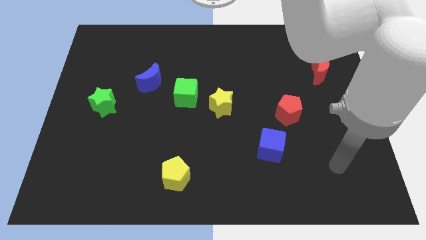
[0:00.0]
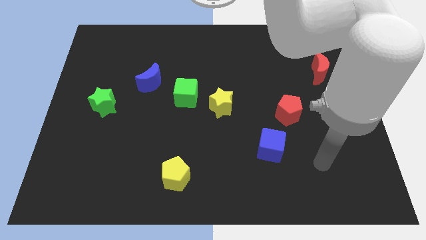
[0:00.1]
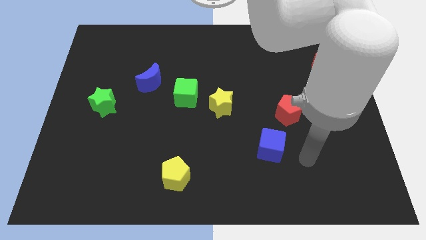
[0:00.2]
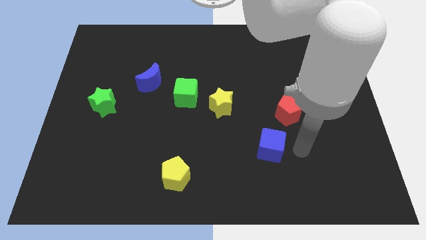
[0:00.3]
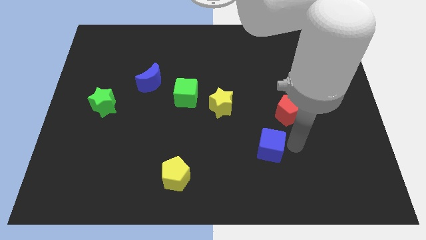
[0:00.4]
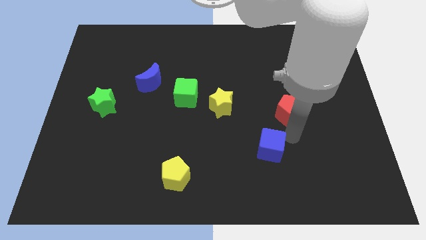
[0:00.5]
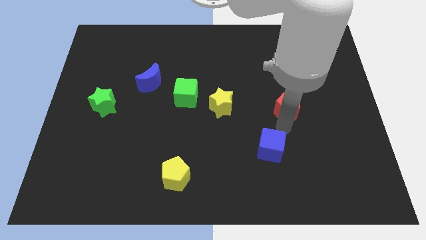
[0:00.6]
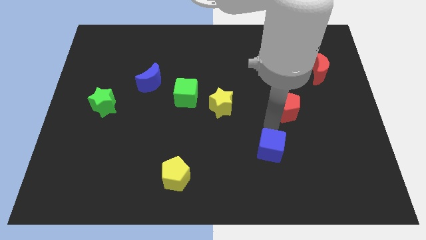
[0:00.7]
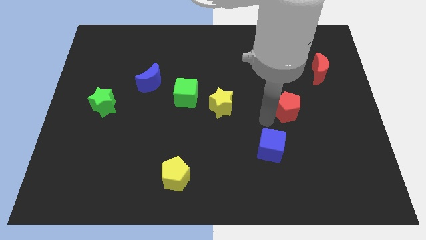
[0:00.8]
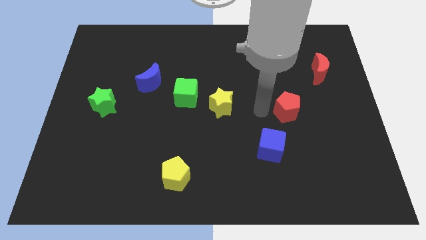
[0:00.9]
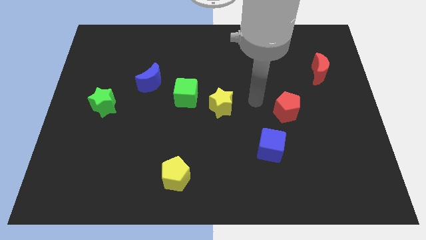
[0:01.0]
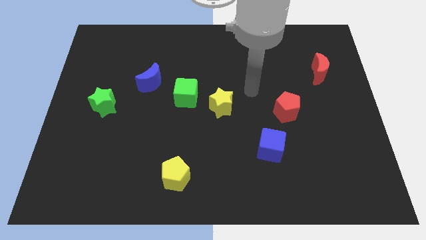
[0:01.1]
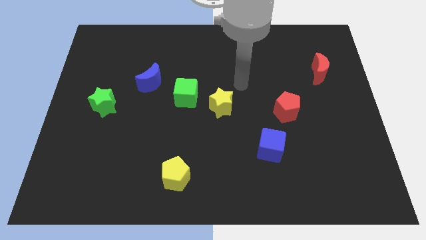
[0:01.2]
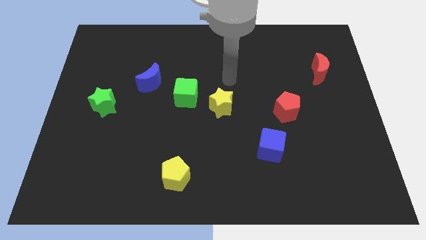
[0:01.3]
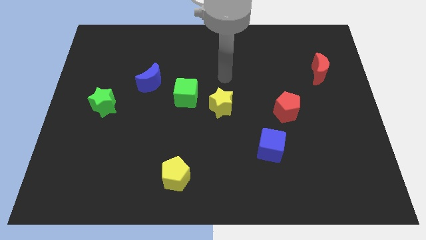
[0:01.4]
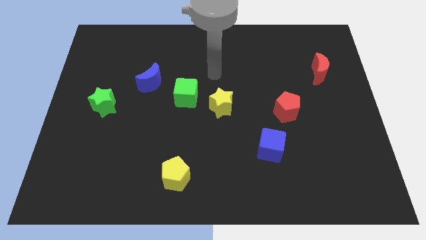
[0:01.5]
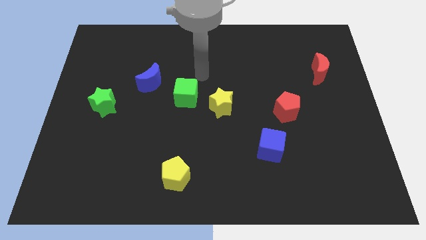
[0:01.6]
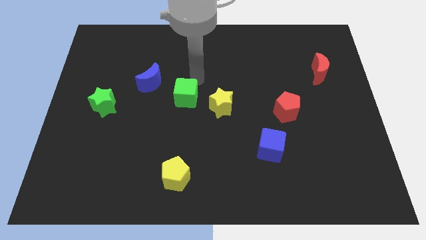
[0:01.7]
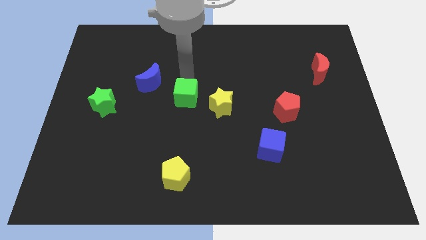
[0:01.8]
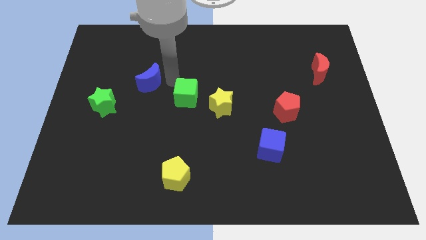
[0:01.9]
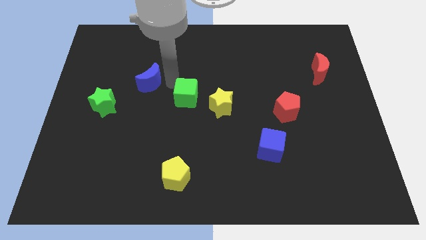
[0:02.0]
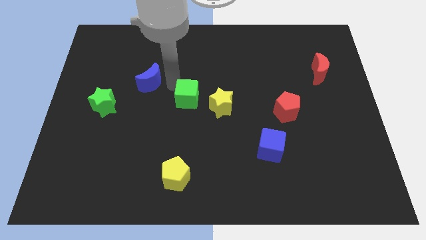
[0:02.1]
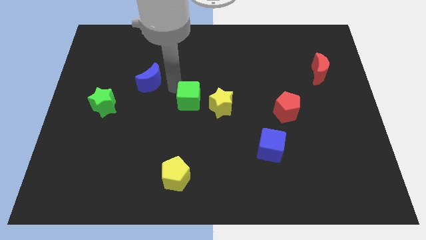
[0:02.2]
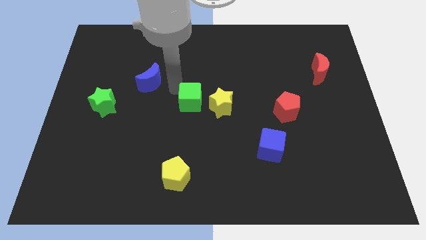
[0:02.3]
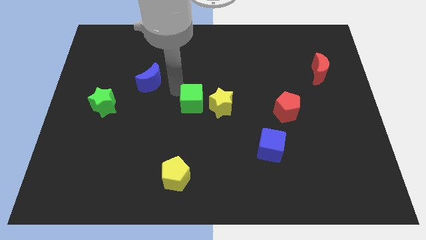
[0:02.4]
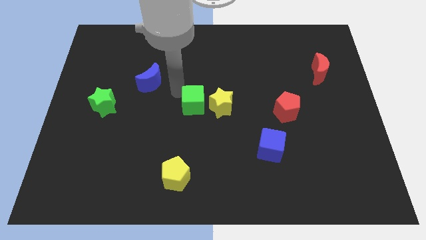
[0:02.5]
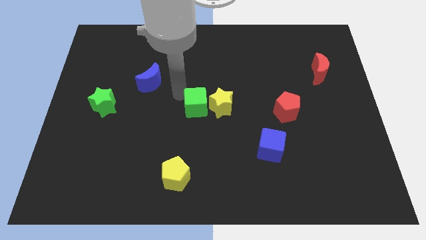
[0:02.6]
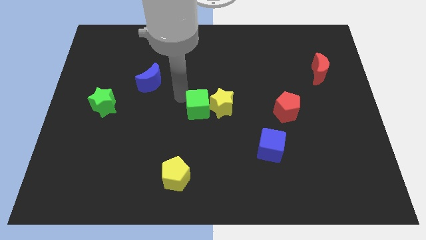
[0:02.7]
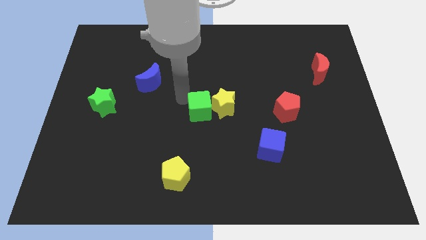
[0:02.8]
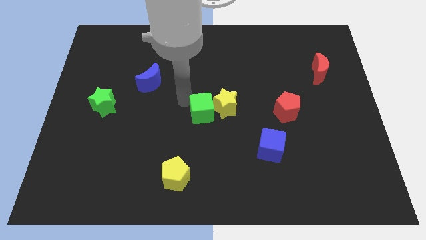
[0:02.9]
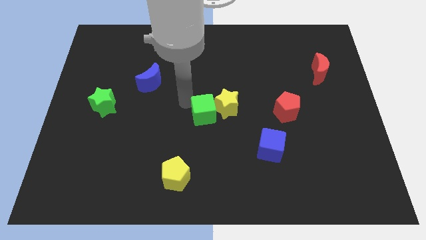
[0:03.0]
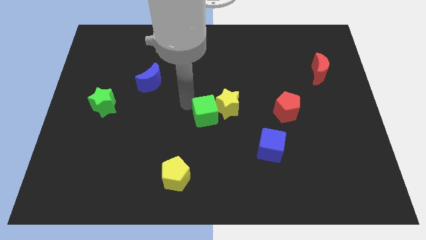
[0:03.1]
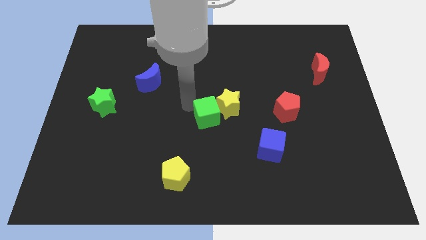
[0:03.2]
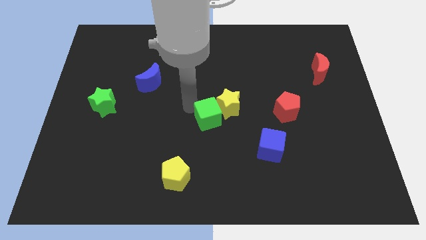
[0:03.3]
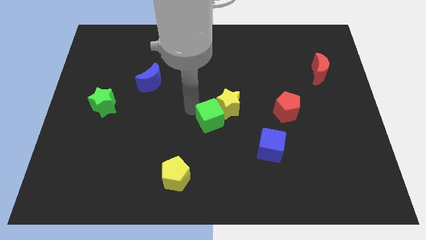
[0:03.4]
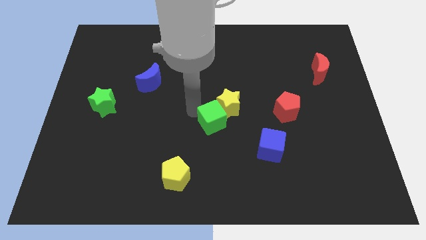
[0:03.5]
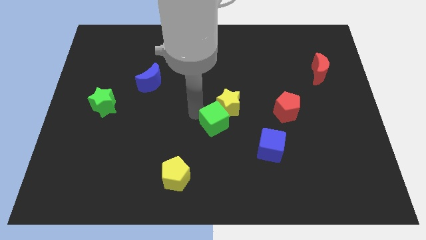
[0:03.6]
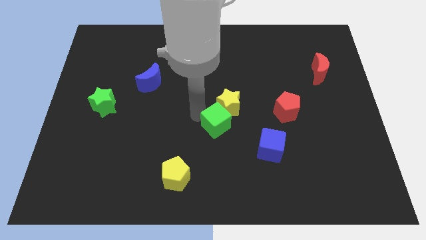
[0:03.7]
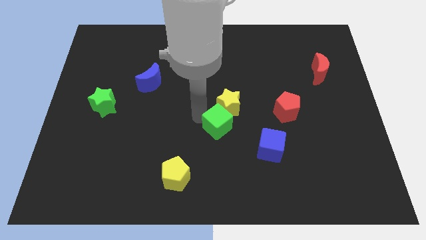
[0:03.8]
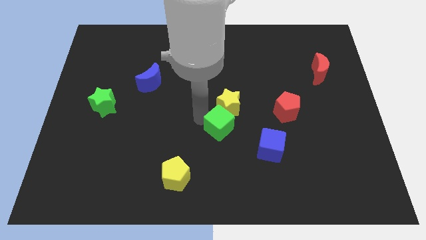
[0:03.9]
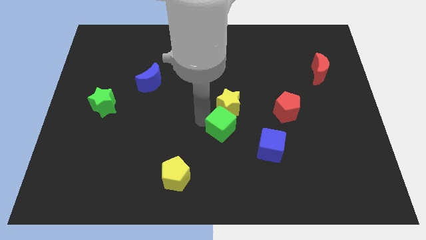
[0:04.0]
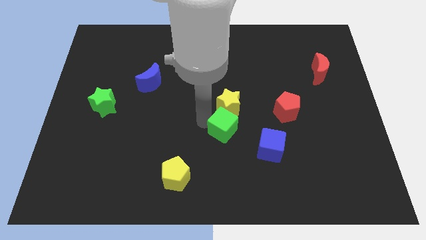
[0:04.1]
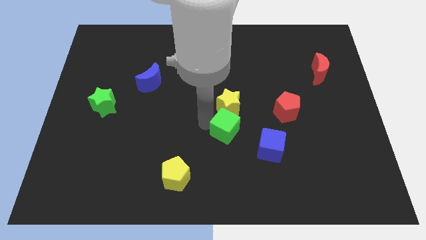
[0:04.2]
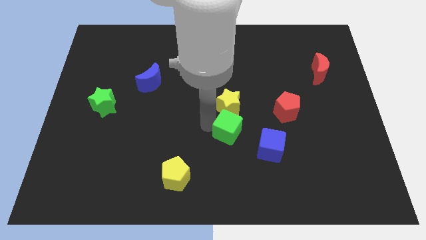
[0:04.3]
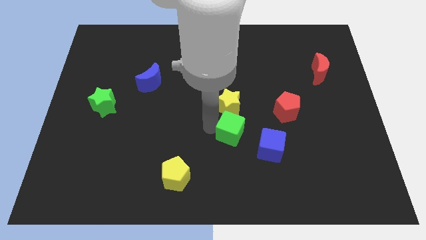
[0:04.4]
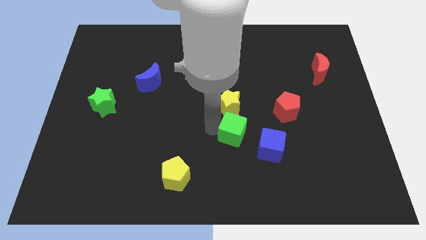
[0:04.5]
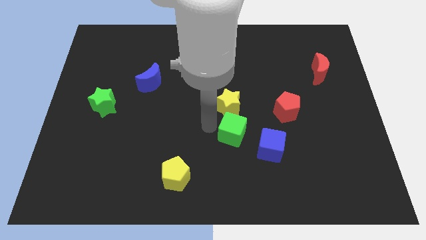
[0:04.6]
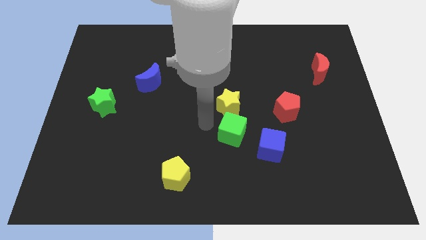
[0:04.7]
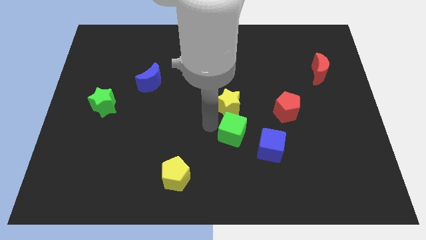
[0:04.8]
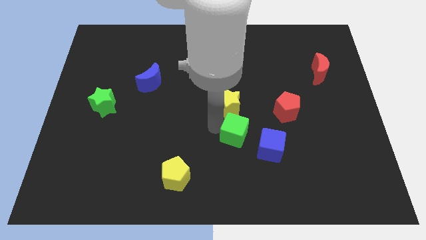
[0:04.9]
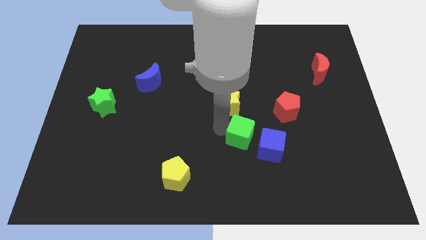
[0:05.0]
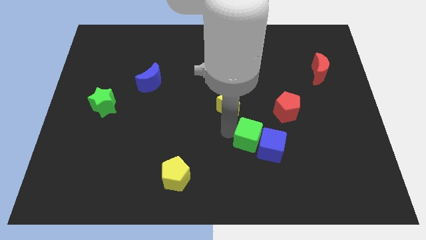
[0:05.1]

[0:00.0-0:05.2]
move the green cube to the blue cube

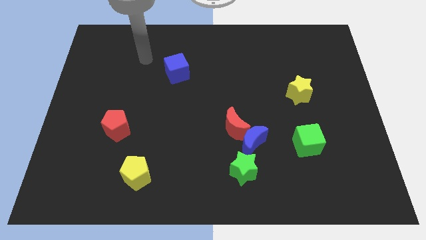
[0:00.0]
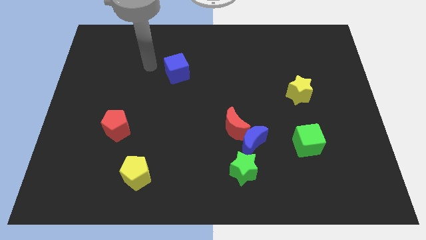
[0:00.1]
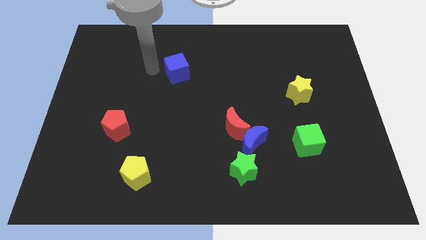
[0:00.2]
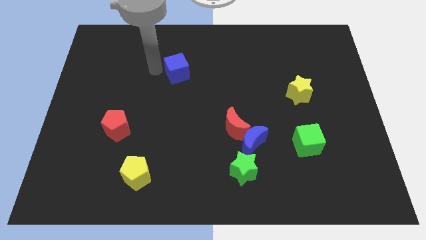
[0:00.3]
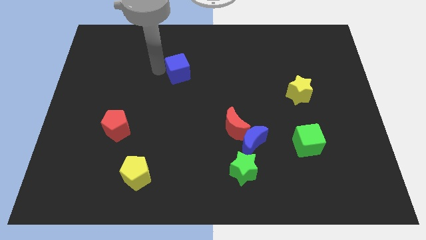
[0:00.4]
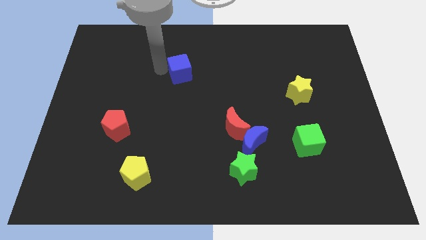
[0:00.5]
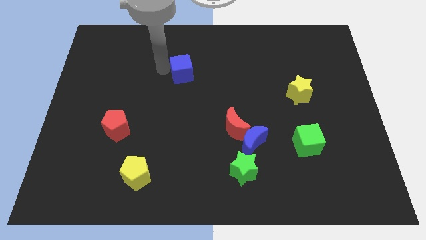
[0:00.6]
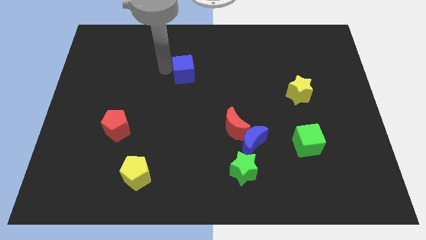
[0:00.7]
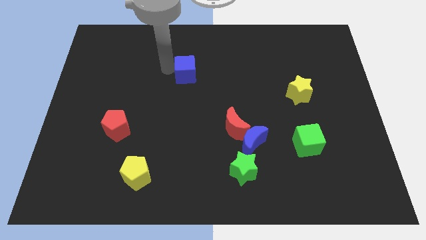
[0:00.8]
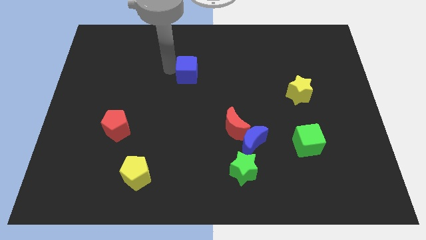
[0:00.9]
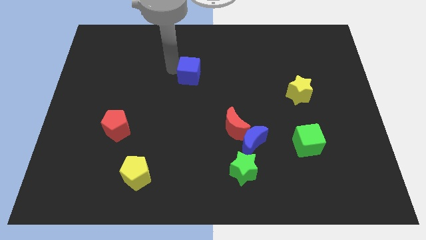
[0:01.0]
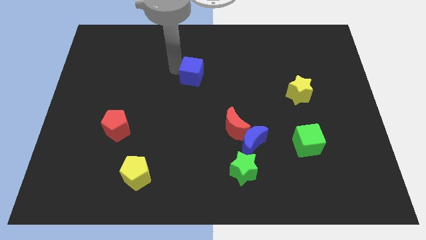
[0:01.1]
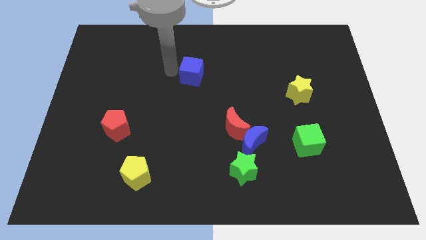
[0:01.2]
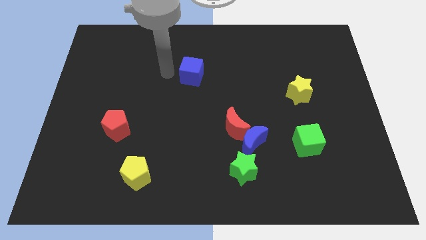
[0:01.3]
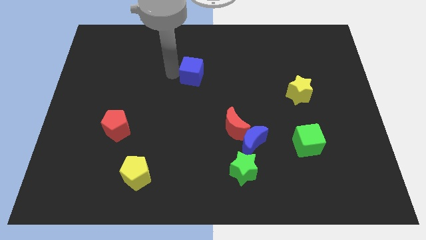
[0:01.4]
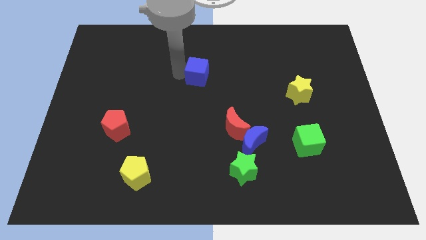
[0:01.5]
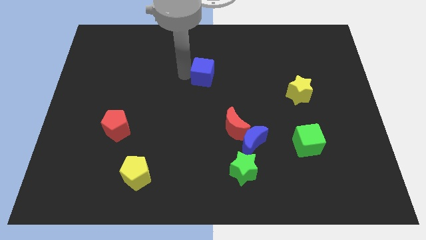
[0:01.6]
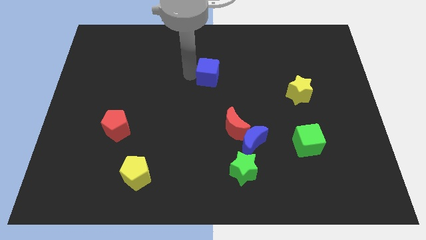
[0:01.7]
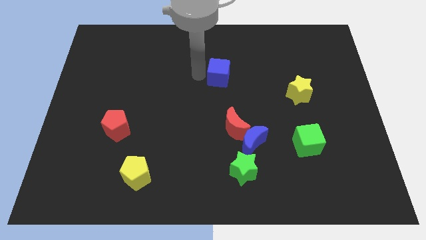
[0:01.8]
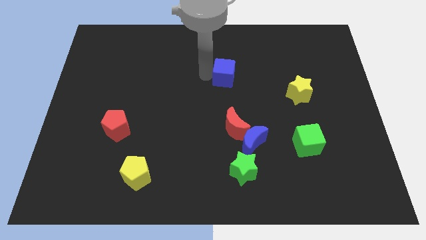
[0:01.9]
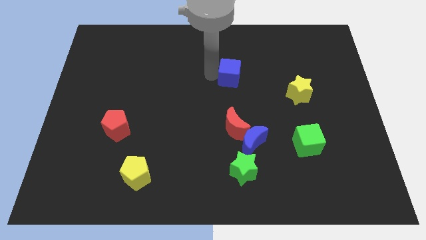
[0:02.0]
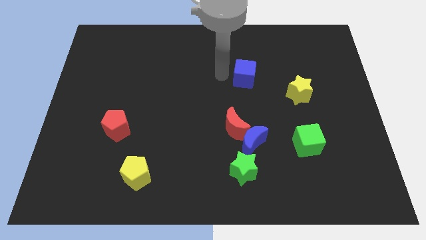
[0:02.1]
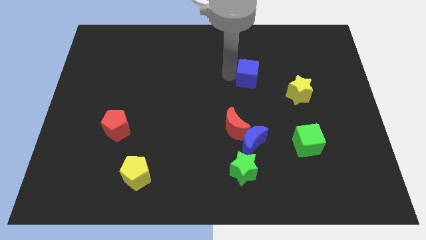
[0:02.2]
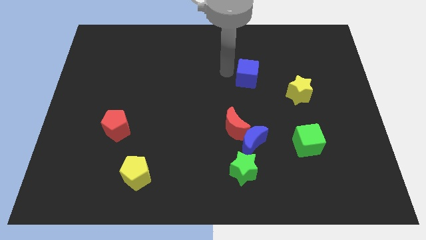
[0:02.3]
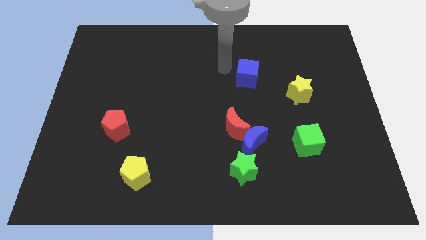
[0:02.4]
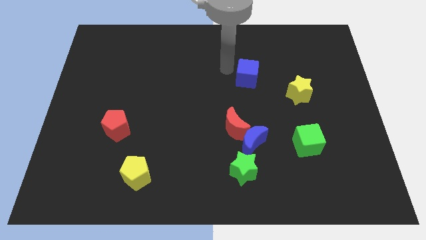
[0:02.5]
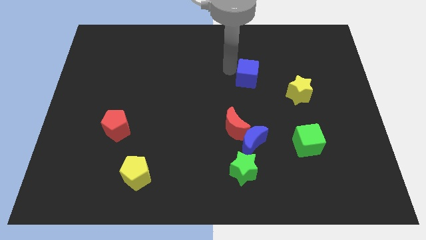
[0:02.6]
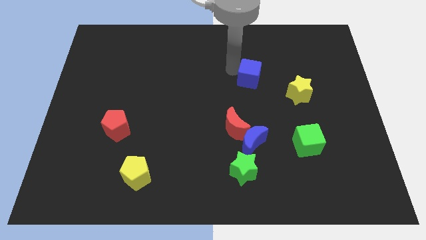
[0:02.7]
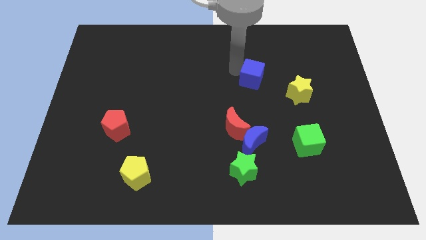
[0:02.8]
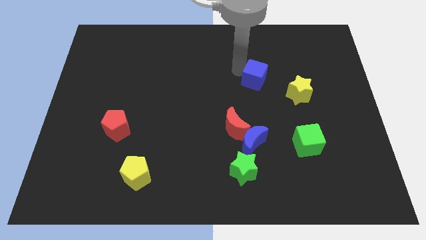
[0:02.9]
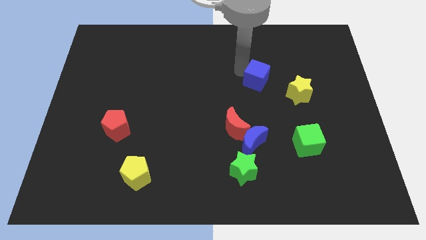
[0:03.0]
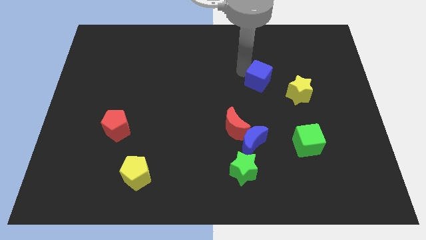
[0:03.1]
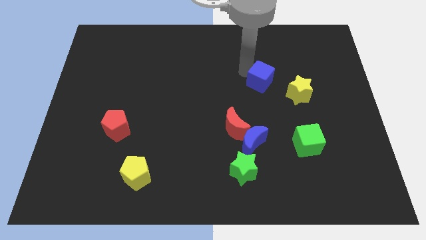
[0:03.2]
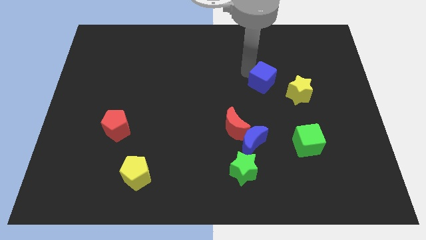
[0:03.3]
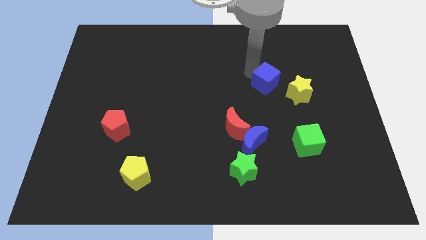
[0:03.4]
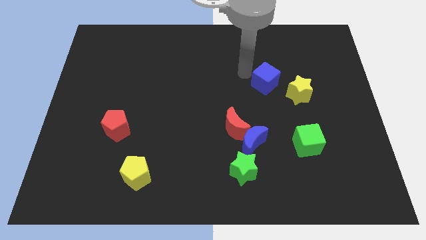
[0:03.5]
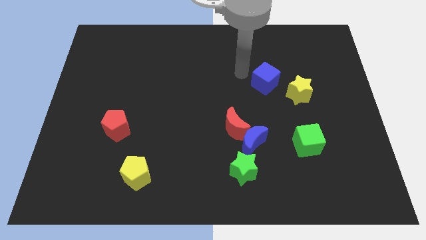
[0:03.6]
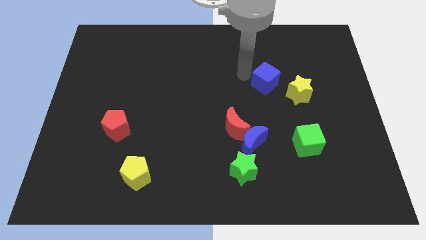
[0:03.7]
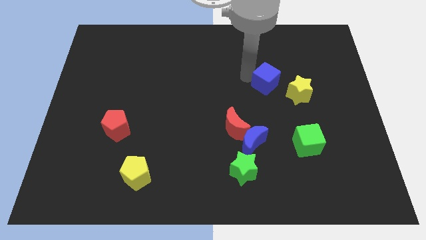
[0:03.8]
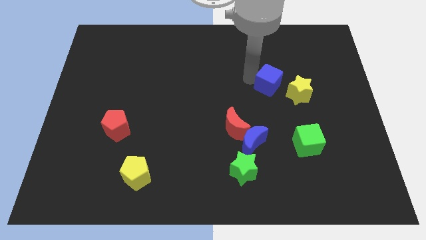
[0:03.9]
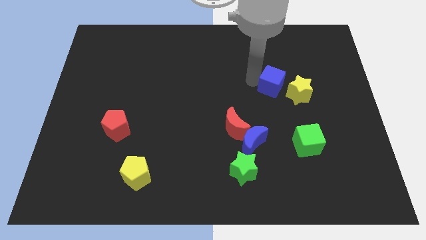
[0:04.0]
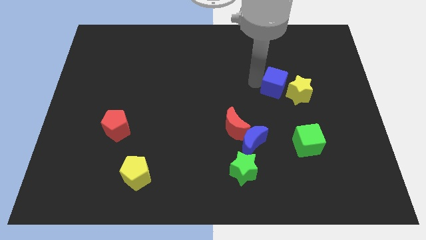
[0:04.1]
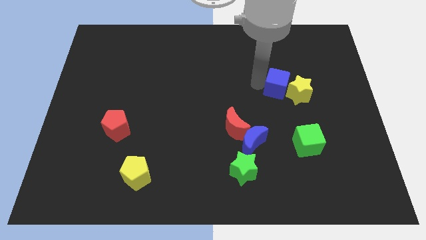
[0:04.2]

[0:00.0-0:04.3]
slide the blue cube next to the yellow star
